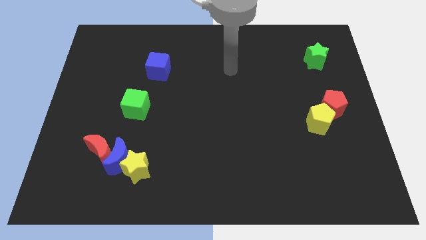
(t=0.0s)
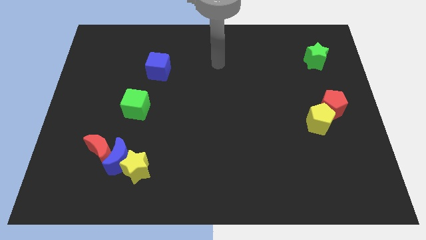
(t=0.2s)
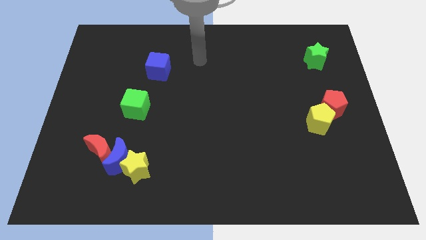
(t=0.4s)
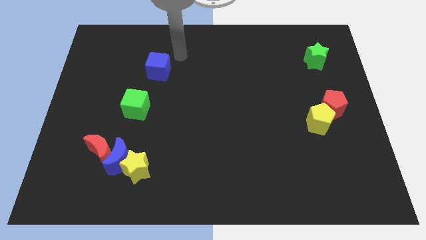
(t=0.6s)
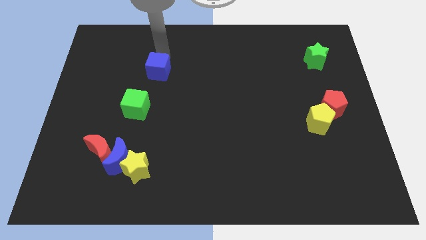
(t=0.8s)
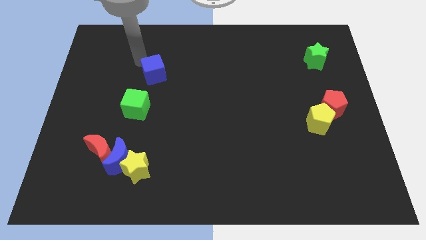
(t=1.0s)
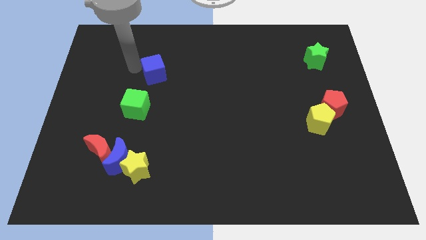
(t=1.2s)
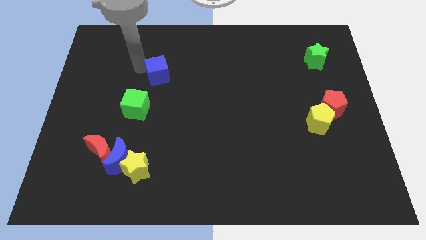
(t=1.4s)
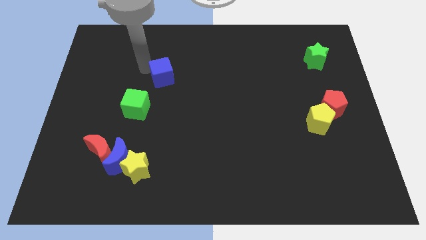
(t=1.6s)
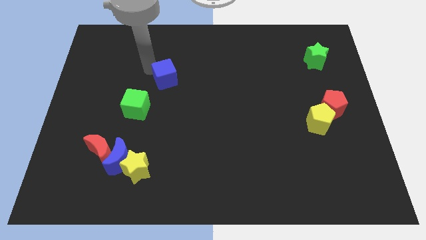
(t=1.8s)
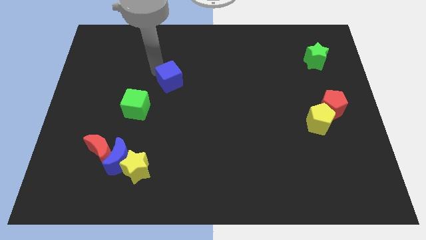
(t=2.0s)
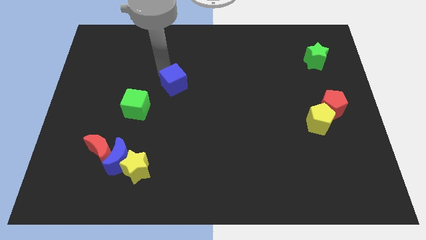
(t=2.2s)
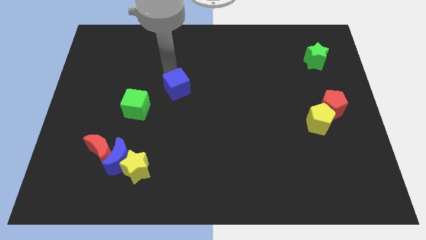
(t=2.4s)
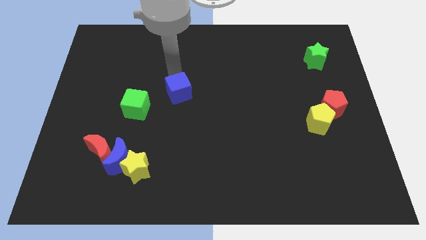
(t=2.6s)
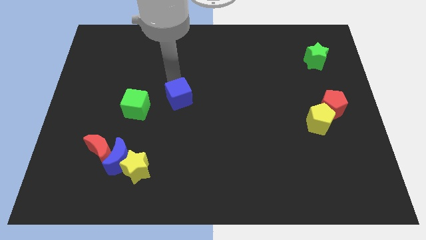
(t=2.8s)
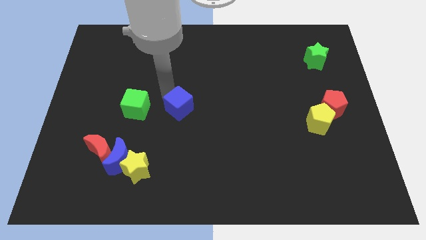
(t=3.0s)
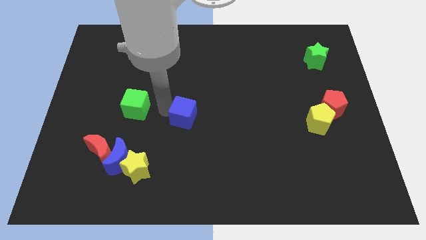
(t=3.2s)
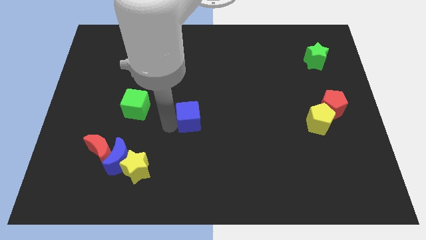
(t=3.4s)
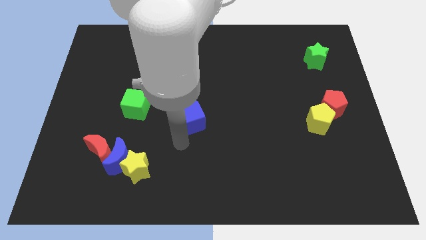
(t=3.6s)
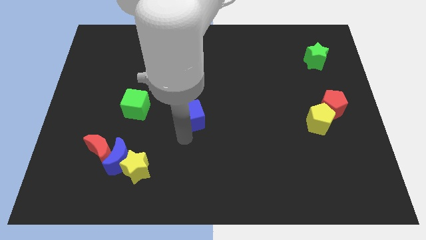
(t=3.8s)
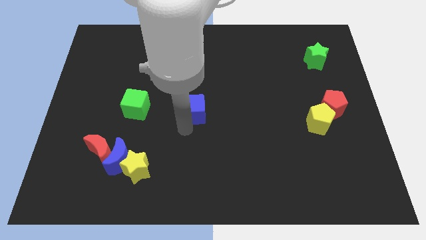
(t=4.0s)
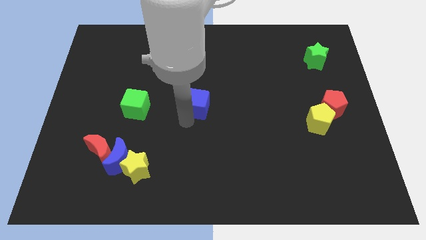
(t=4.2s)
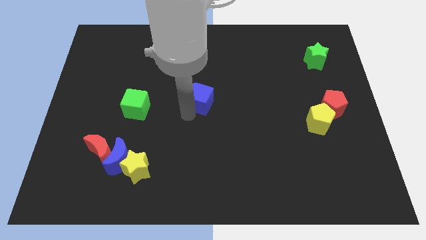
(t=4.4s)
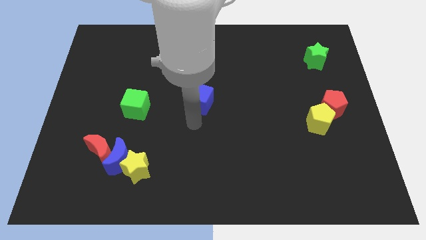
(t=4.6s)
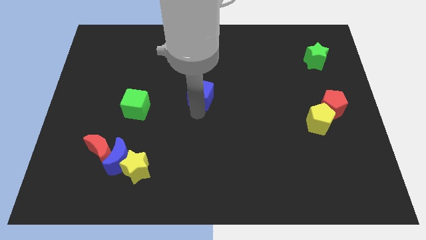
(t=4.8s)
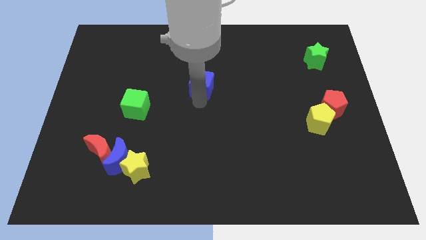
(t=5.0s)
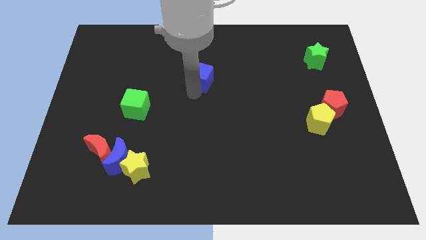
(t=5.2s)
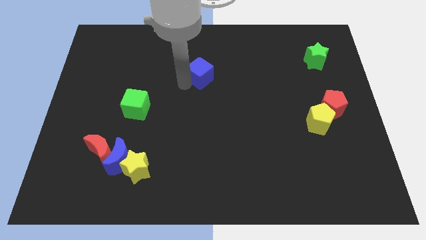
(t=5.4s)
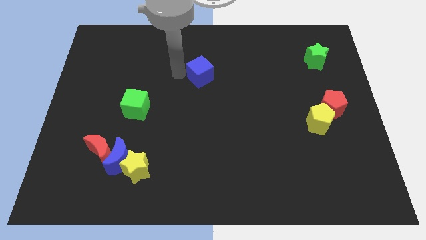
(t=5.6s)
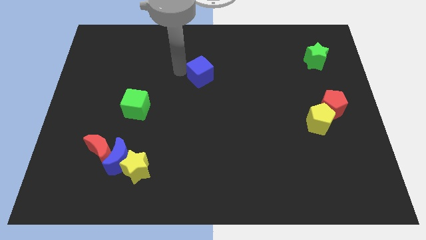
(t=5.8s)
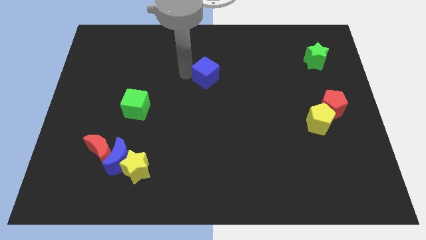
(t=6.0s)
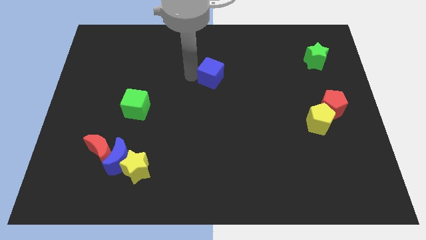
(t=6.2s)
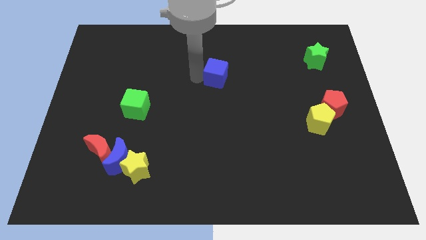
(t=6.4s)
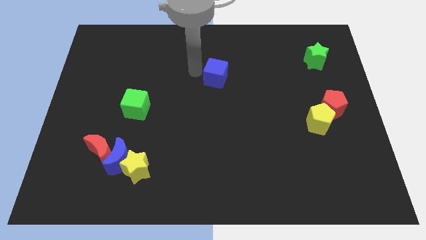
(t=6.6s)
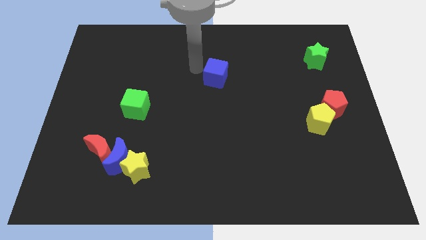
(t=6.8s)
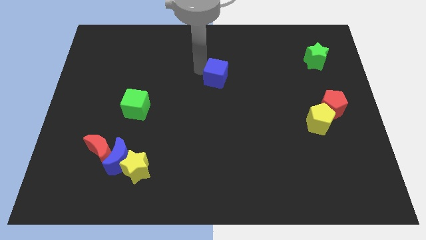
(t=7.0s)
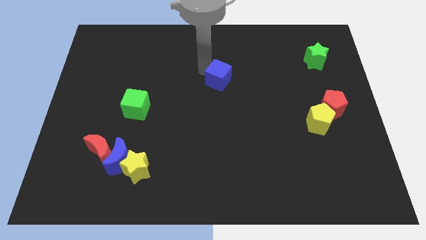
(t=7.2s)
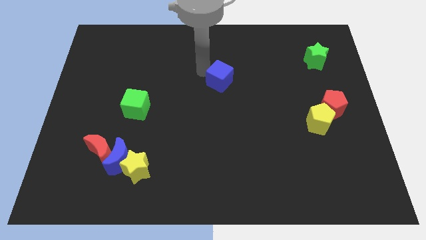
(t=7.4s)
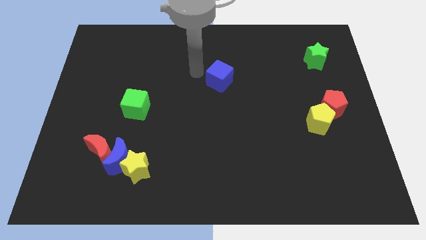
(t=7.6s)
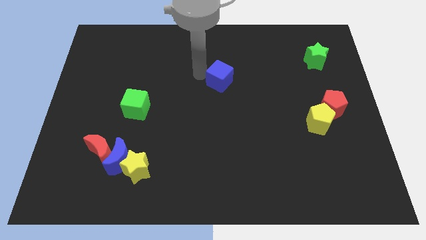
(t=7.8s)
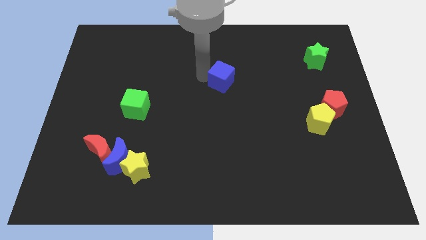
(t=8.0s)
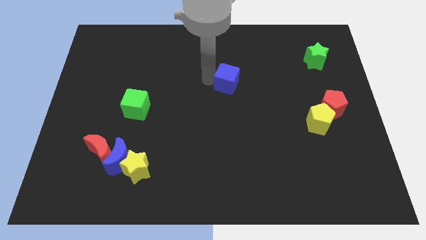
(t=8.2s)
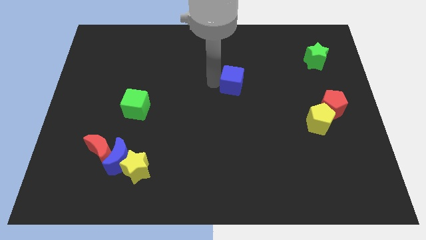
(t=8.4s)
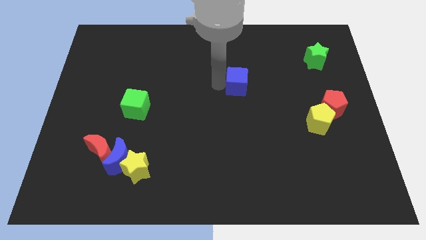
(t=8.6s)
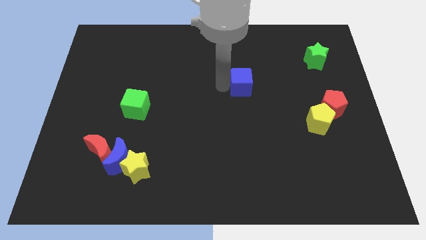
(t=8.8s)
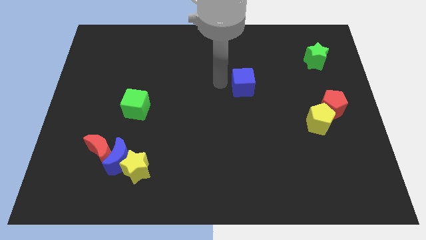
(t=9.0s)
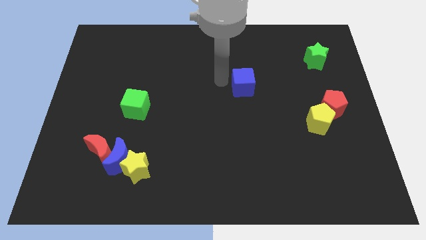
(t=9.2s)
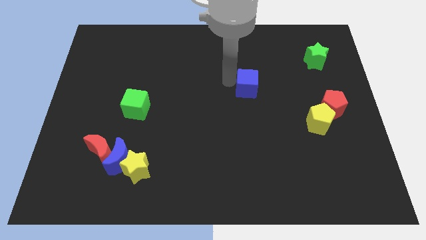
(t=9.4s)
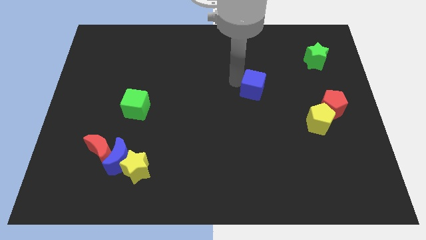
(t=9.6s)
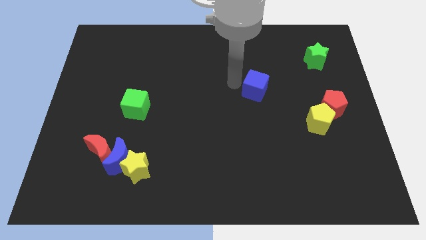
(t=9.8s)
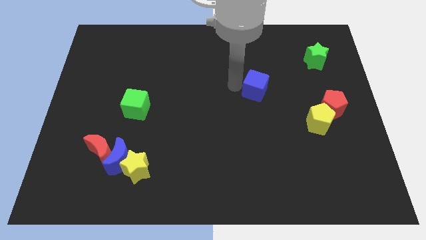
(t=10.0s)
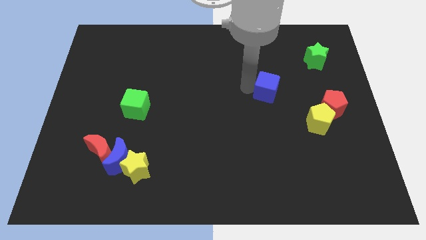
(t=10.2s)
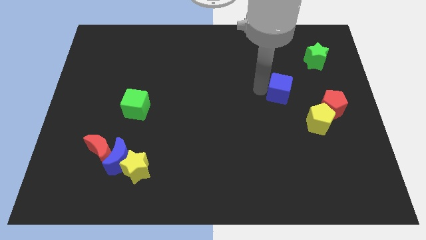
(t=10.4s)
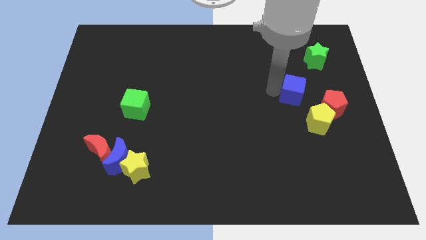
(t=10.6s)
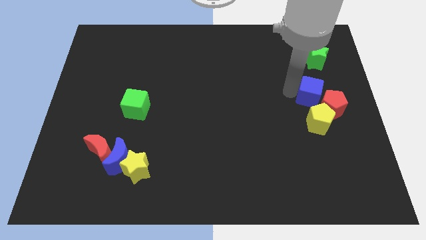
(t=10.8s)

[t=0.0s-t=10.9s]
put the blue cube towards the red pentagon

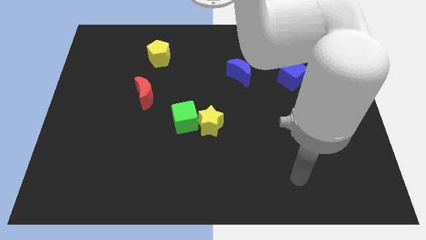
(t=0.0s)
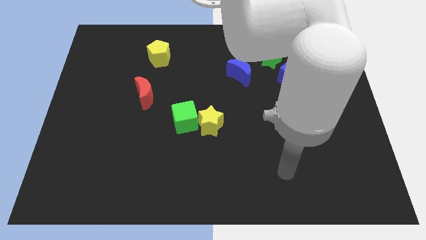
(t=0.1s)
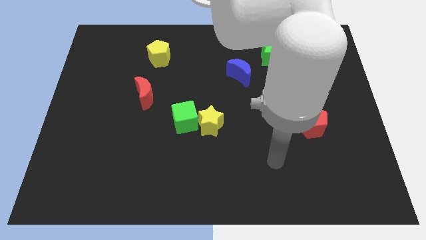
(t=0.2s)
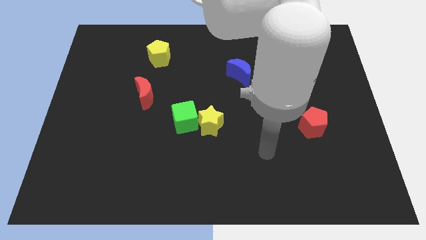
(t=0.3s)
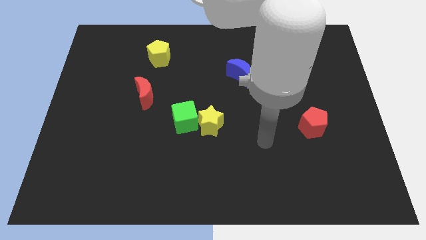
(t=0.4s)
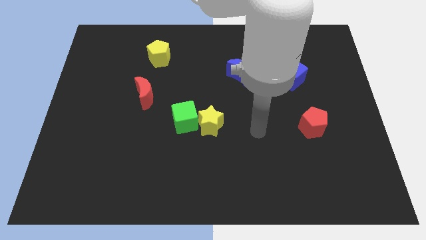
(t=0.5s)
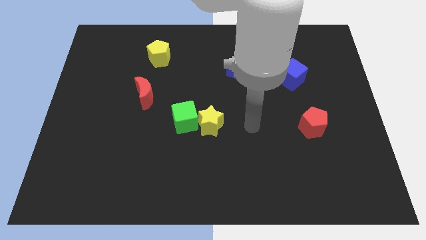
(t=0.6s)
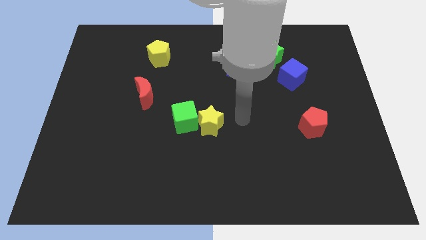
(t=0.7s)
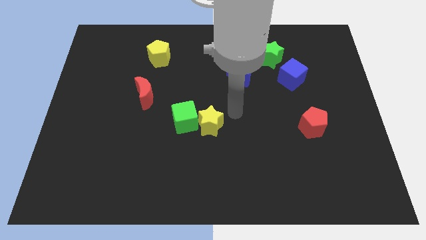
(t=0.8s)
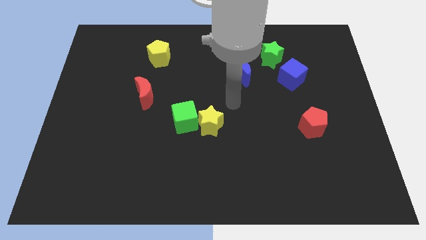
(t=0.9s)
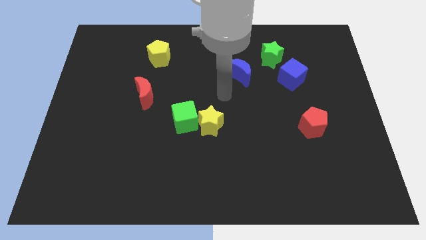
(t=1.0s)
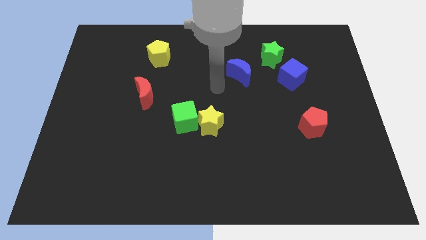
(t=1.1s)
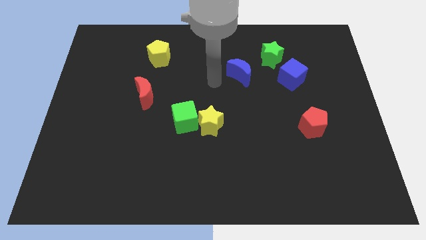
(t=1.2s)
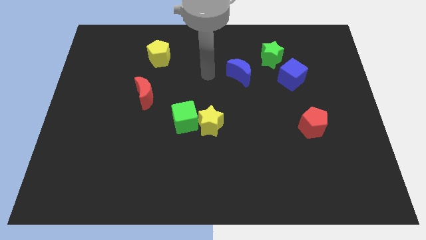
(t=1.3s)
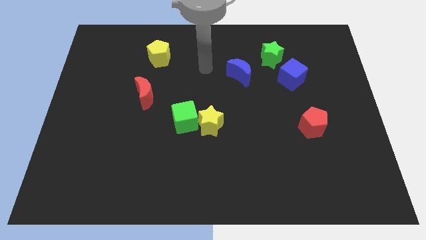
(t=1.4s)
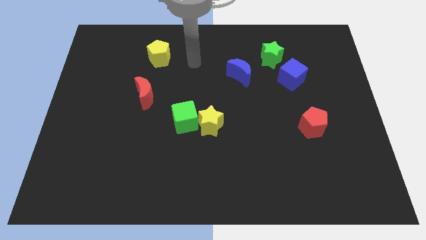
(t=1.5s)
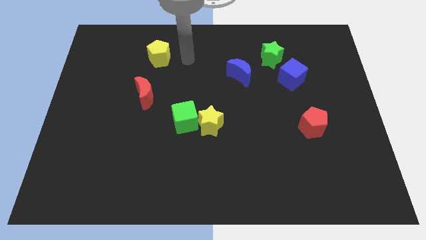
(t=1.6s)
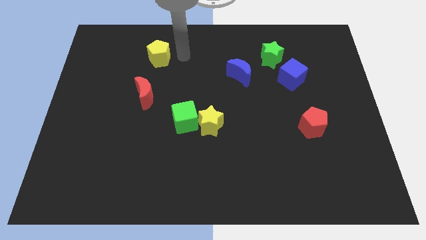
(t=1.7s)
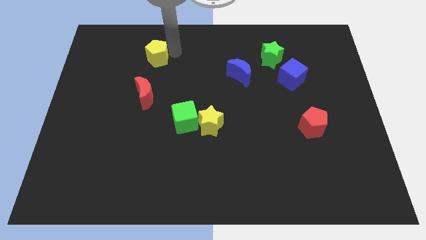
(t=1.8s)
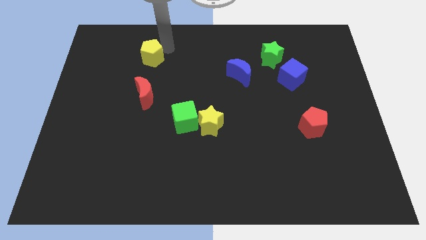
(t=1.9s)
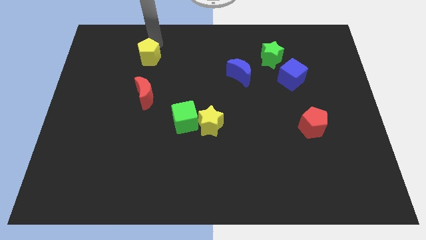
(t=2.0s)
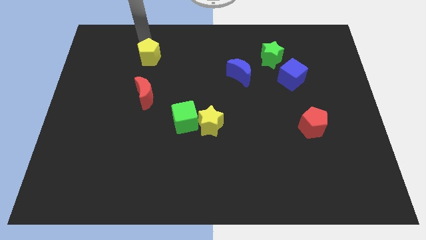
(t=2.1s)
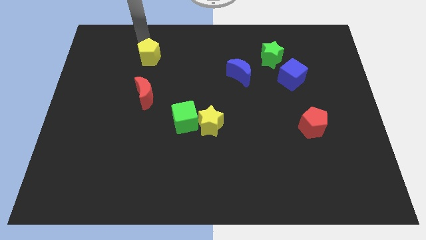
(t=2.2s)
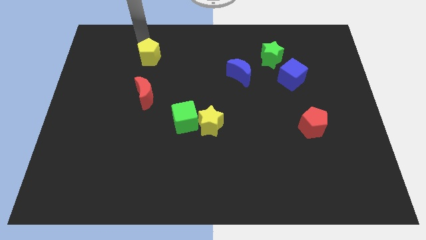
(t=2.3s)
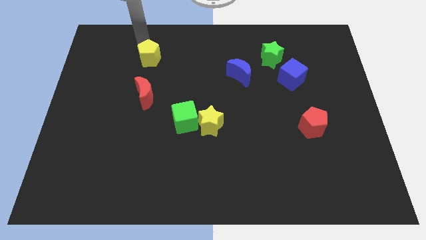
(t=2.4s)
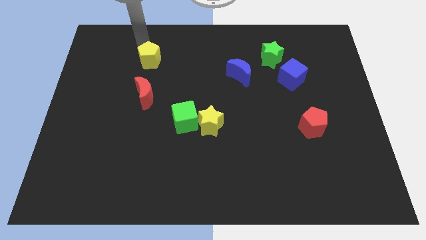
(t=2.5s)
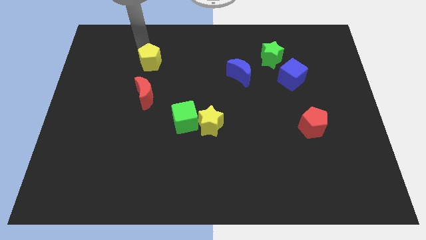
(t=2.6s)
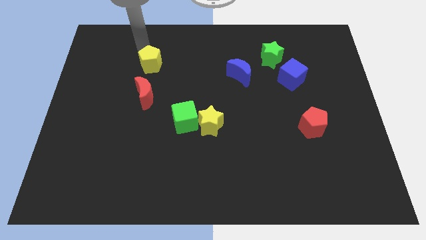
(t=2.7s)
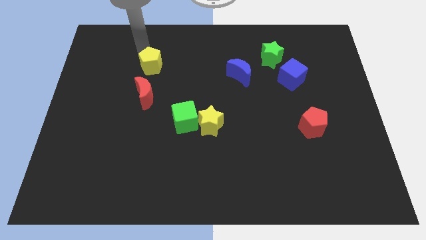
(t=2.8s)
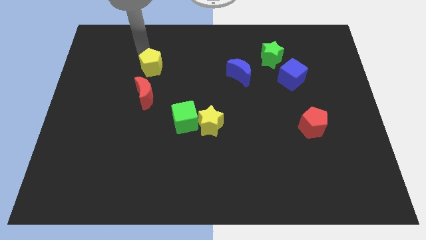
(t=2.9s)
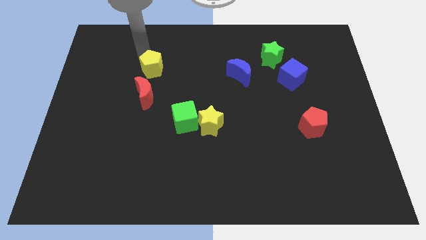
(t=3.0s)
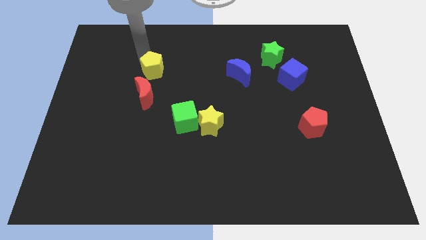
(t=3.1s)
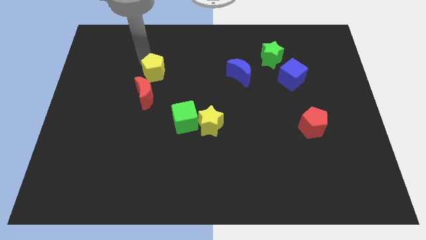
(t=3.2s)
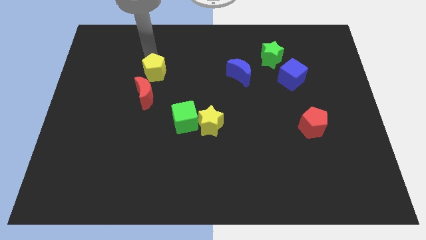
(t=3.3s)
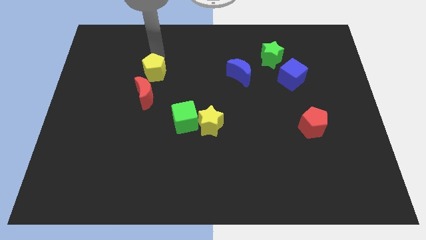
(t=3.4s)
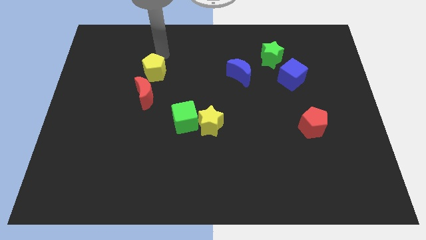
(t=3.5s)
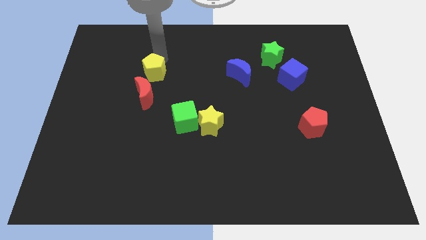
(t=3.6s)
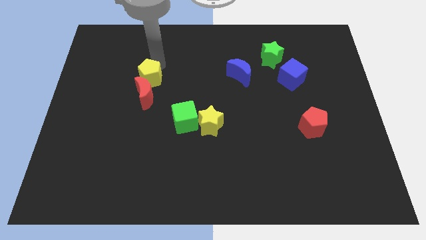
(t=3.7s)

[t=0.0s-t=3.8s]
move the yellow pentagon to the red moon
